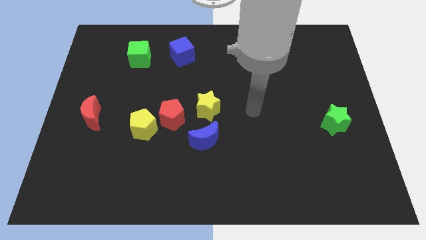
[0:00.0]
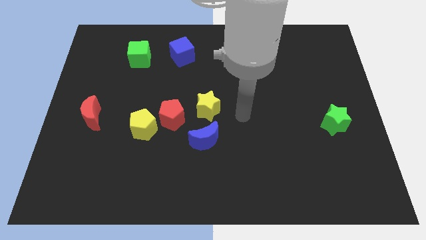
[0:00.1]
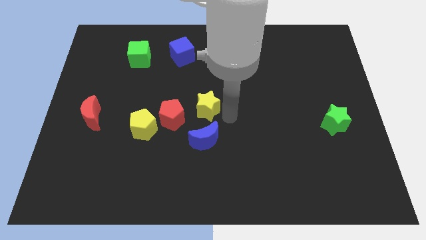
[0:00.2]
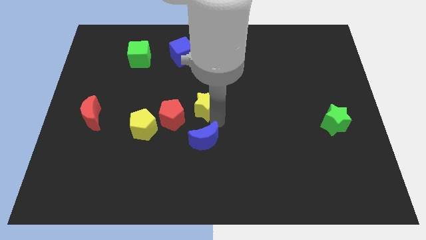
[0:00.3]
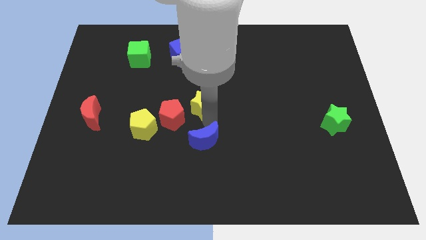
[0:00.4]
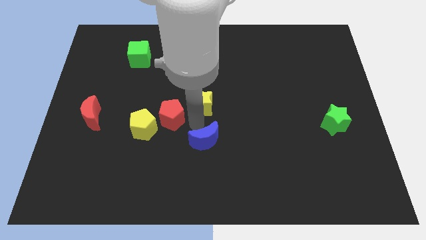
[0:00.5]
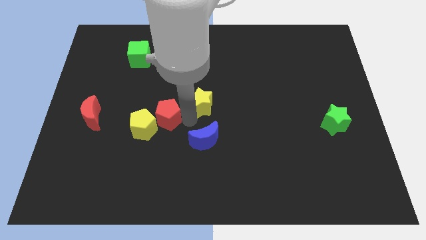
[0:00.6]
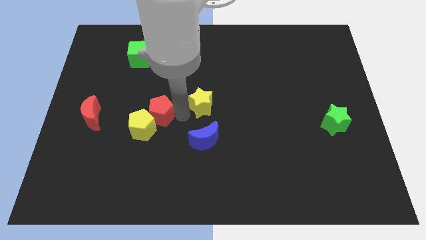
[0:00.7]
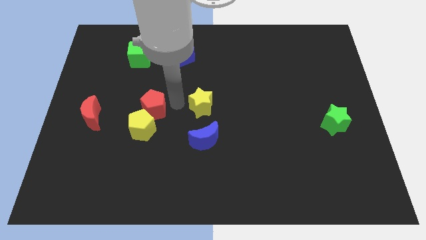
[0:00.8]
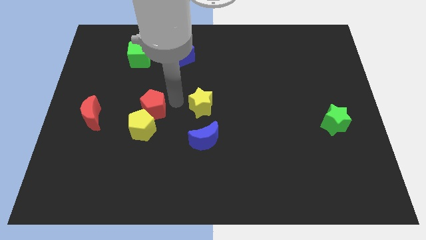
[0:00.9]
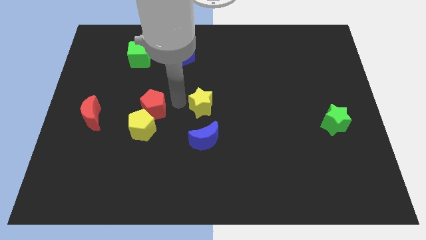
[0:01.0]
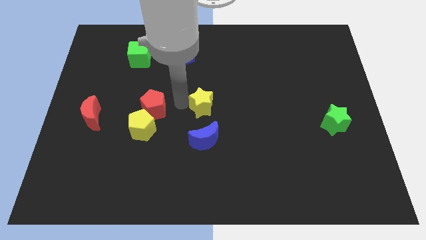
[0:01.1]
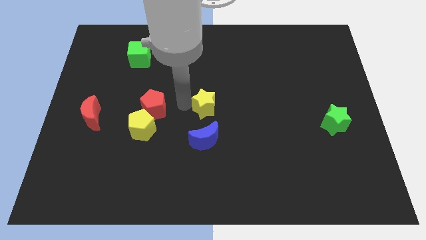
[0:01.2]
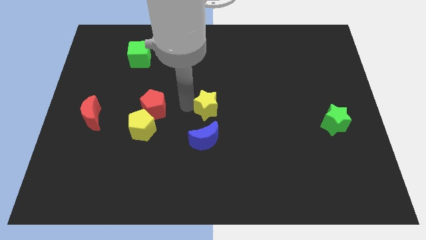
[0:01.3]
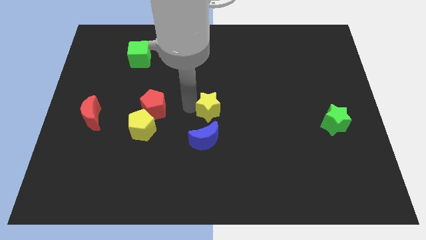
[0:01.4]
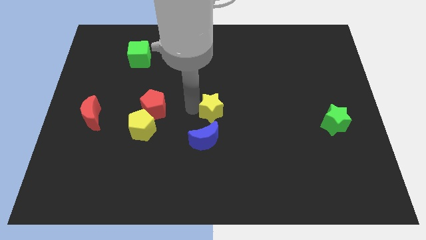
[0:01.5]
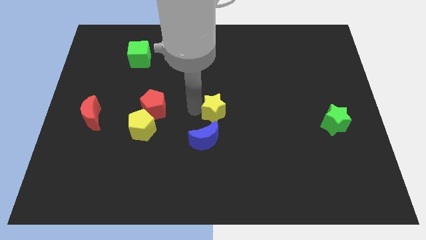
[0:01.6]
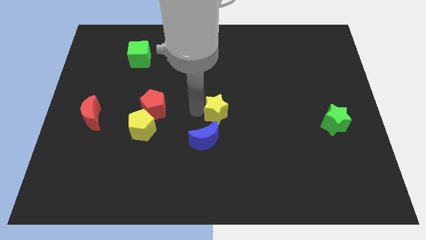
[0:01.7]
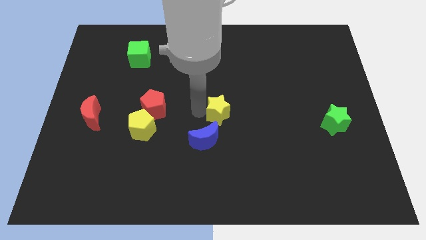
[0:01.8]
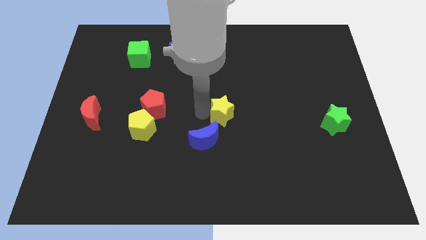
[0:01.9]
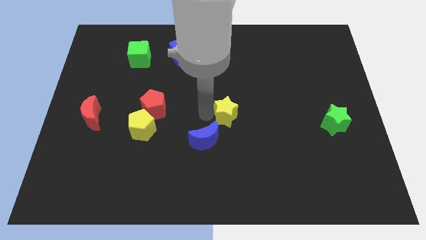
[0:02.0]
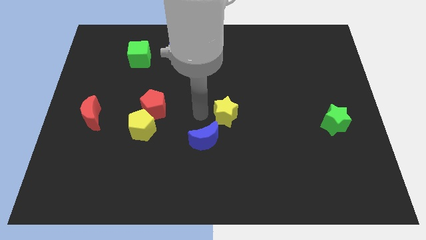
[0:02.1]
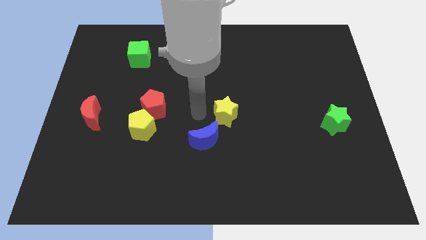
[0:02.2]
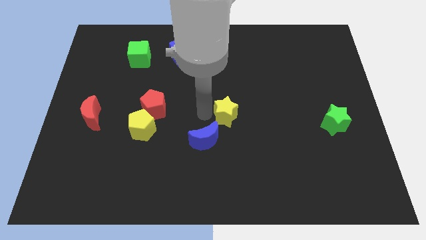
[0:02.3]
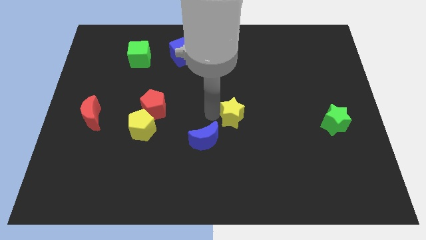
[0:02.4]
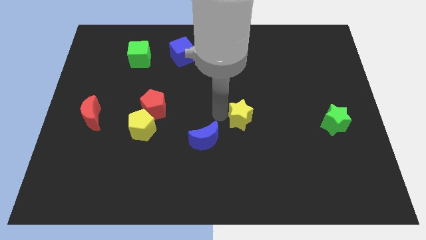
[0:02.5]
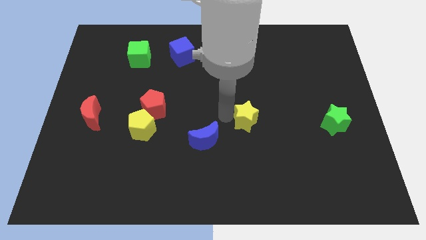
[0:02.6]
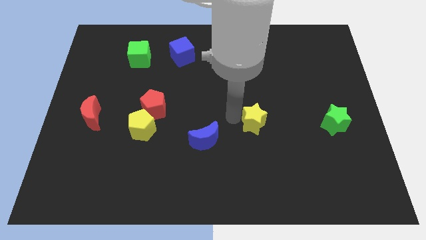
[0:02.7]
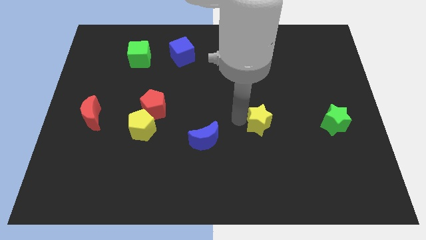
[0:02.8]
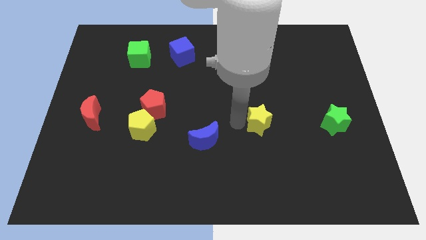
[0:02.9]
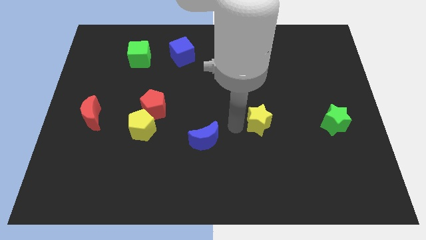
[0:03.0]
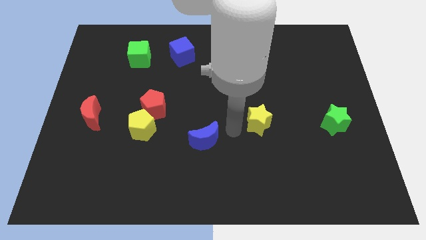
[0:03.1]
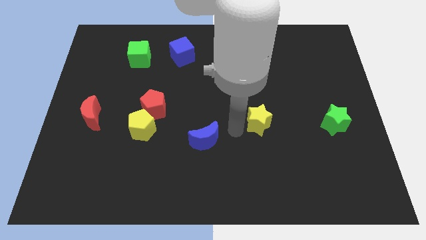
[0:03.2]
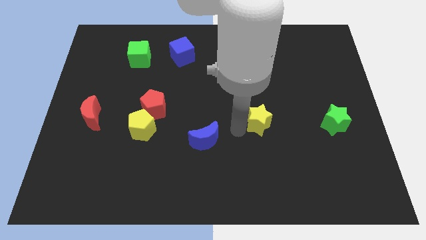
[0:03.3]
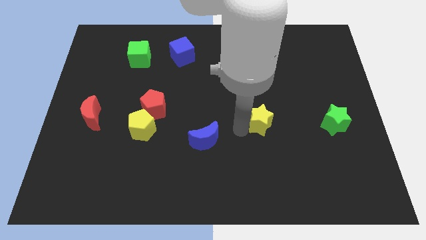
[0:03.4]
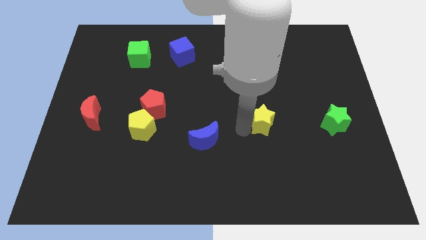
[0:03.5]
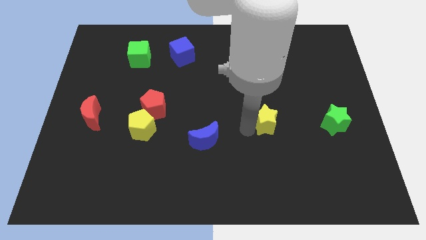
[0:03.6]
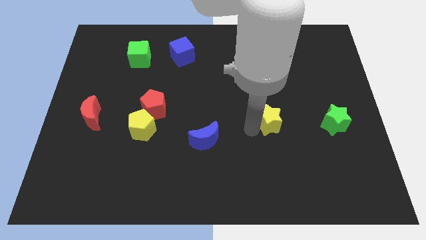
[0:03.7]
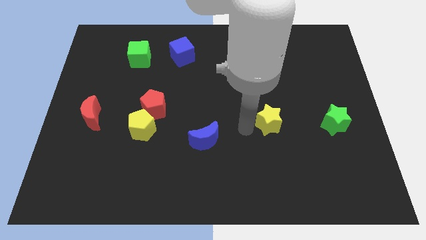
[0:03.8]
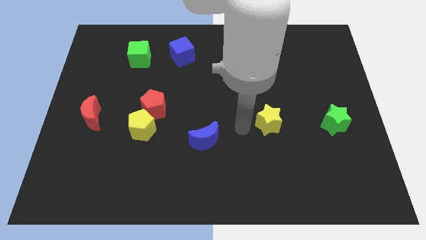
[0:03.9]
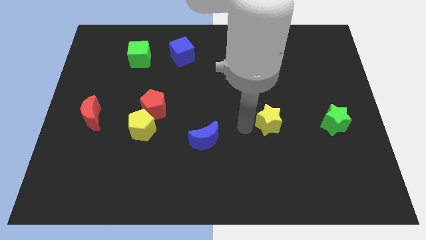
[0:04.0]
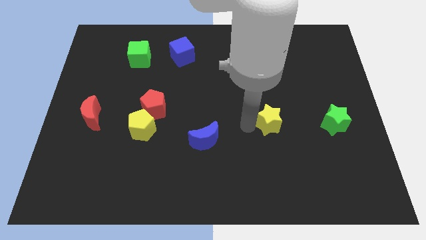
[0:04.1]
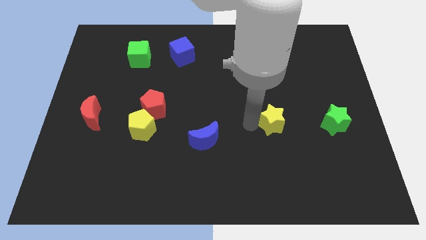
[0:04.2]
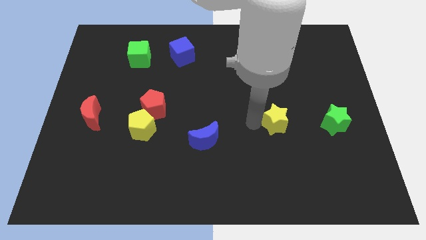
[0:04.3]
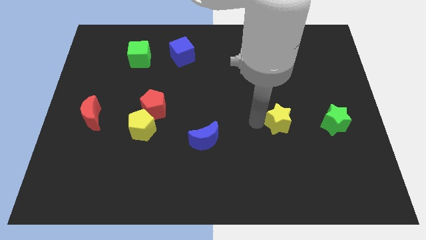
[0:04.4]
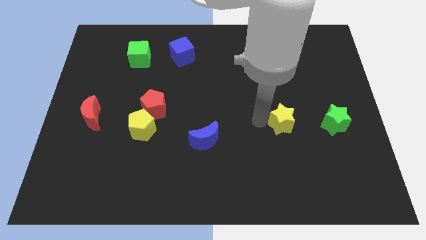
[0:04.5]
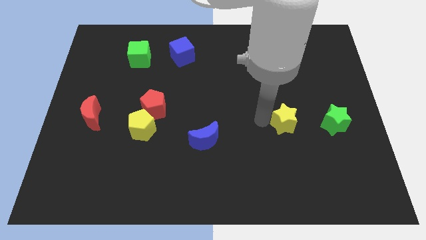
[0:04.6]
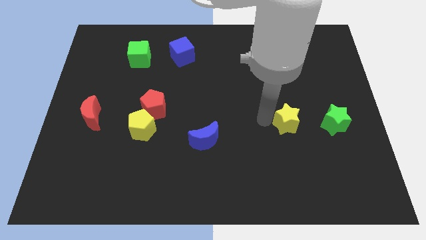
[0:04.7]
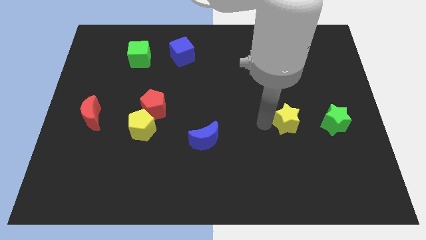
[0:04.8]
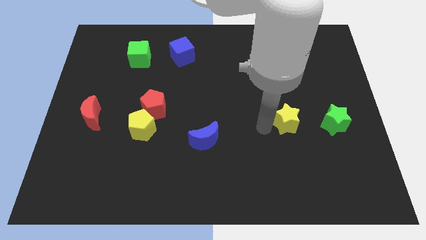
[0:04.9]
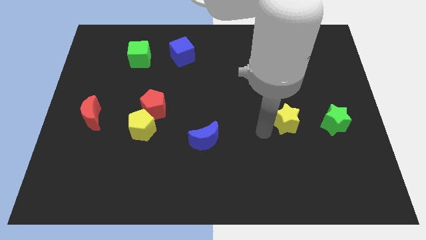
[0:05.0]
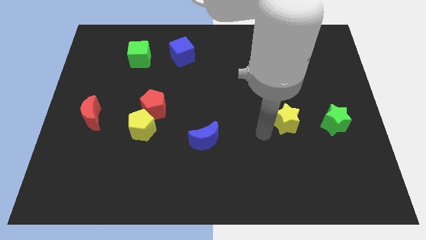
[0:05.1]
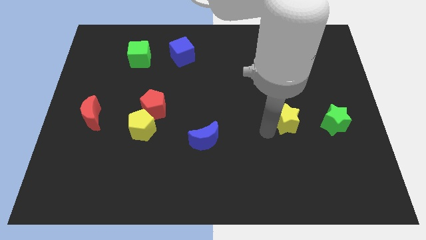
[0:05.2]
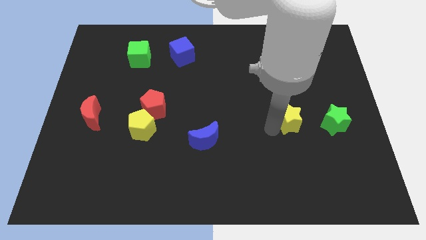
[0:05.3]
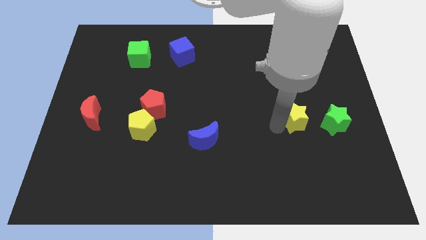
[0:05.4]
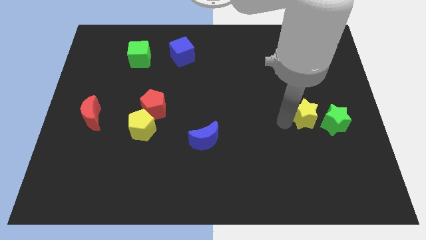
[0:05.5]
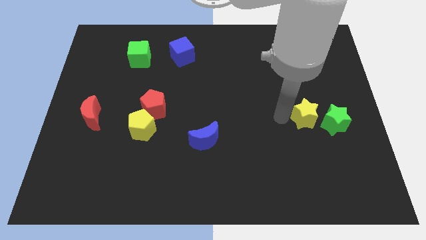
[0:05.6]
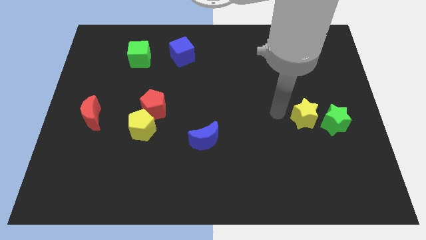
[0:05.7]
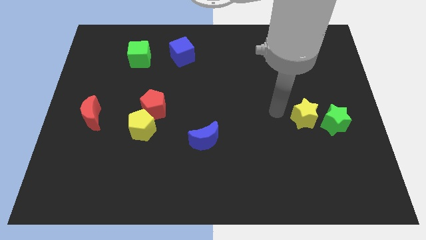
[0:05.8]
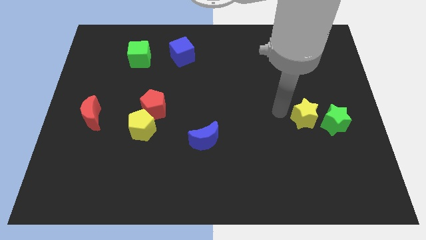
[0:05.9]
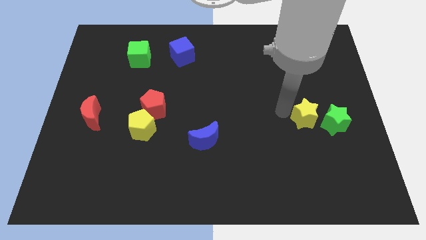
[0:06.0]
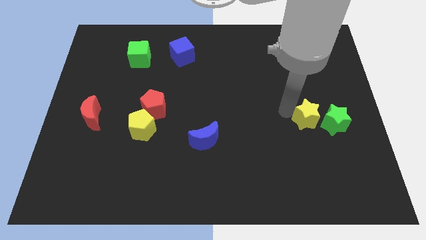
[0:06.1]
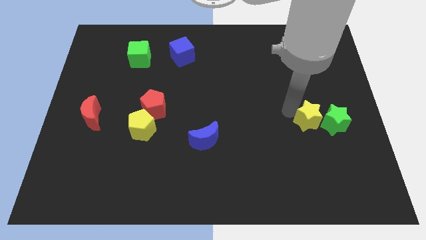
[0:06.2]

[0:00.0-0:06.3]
move the yellow star to the green star

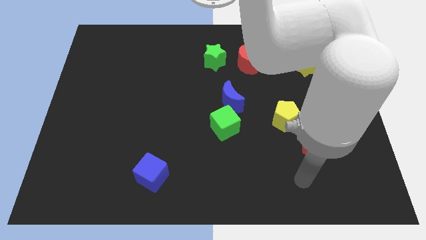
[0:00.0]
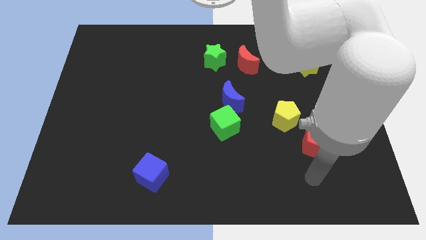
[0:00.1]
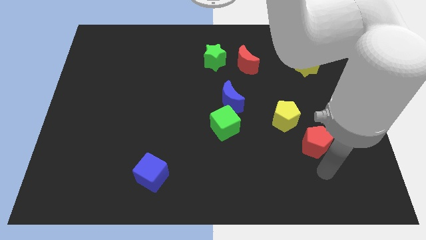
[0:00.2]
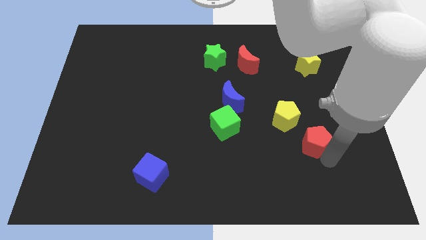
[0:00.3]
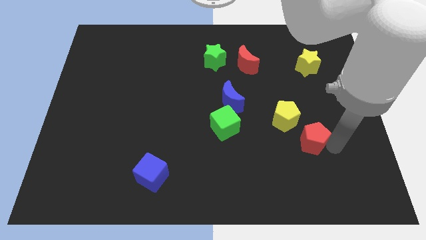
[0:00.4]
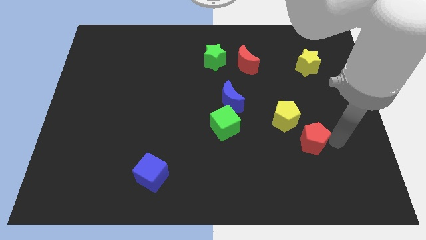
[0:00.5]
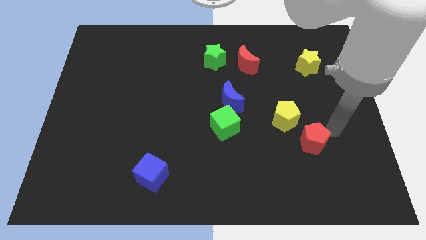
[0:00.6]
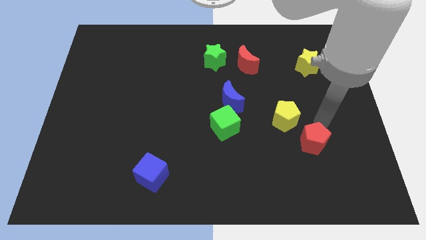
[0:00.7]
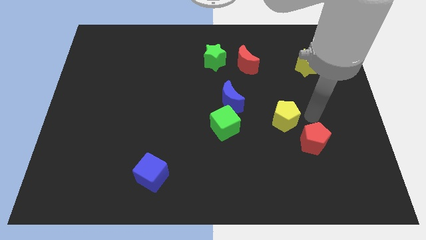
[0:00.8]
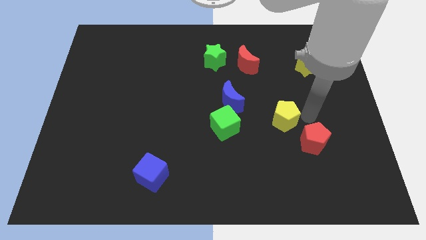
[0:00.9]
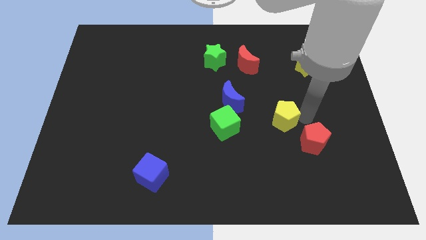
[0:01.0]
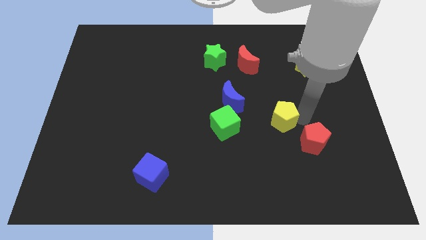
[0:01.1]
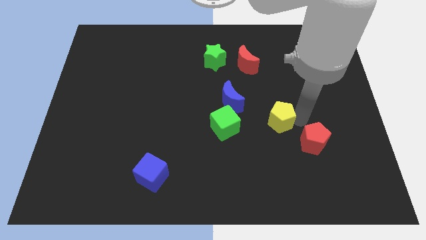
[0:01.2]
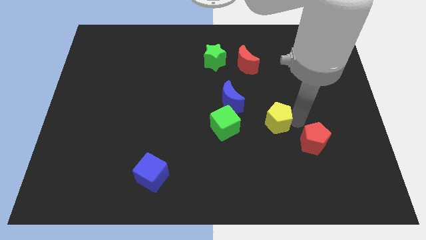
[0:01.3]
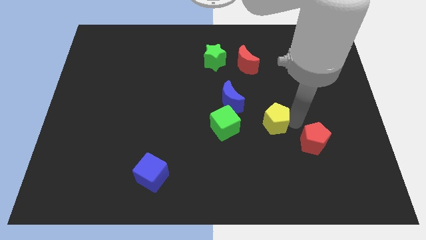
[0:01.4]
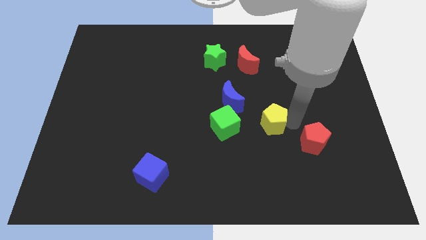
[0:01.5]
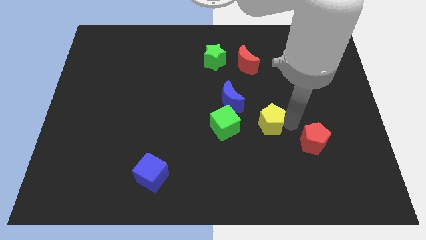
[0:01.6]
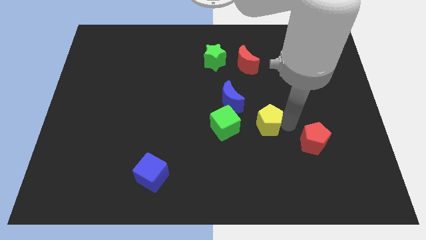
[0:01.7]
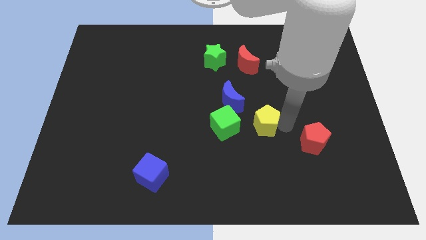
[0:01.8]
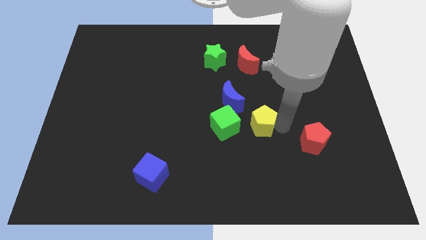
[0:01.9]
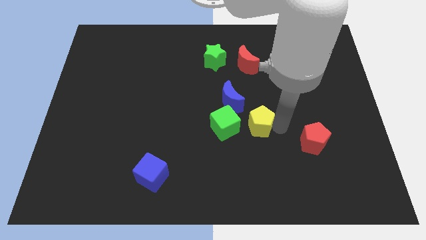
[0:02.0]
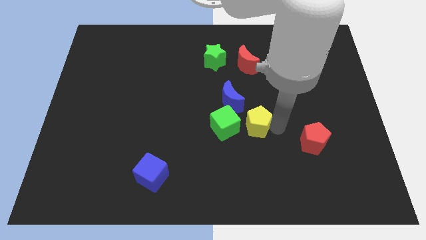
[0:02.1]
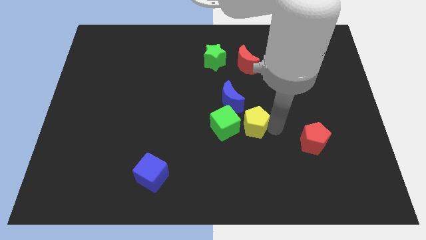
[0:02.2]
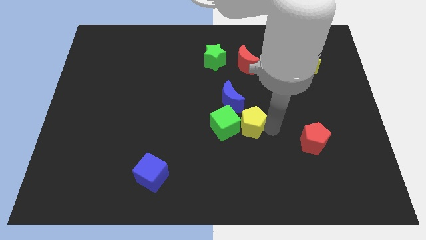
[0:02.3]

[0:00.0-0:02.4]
move the yellow pentagon next to the green cube
